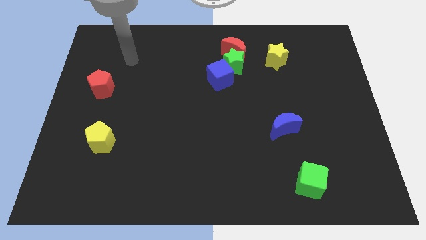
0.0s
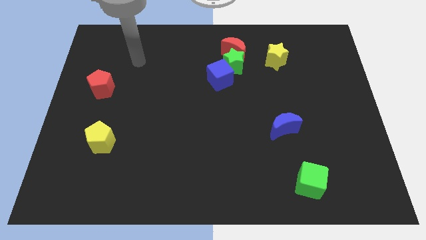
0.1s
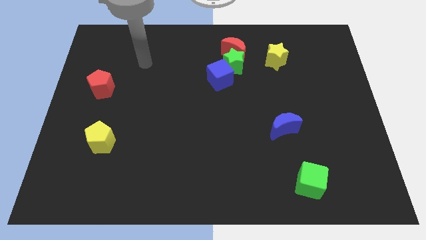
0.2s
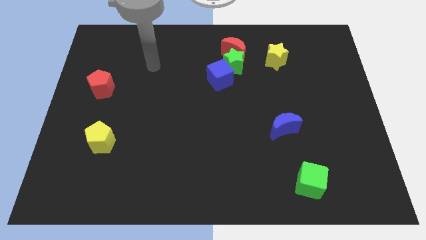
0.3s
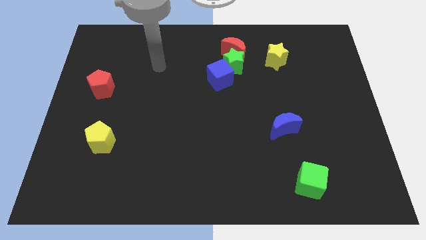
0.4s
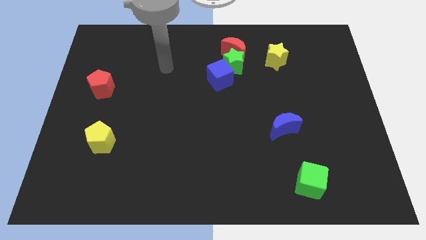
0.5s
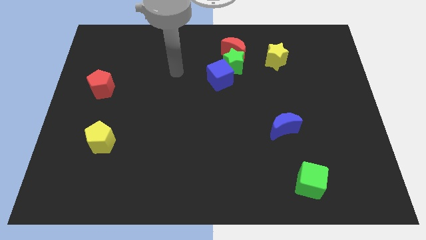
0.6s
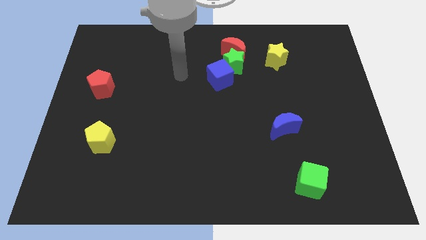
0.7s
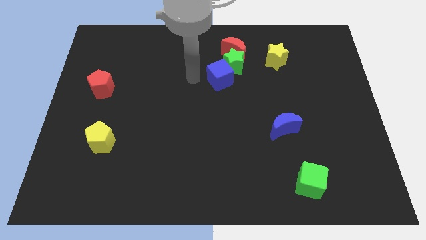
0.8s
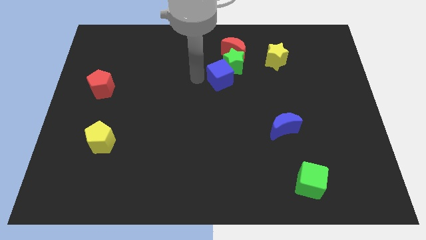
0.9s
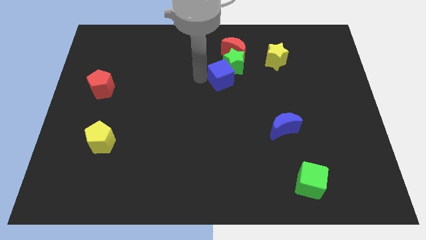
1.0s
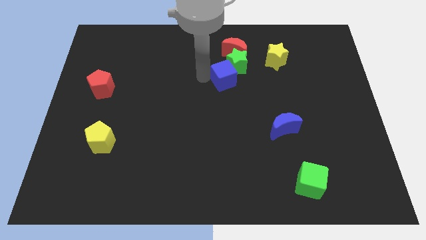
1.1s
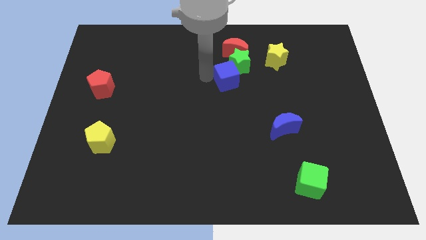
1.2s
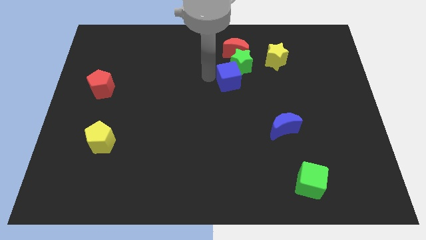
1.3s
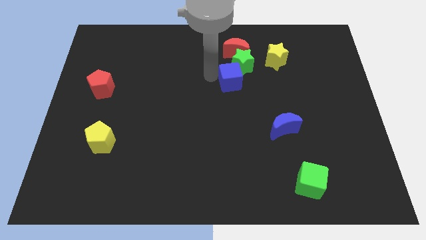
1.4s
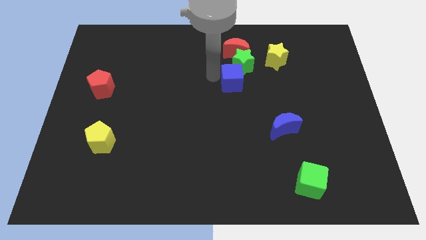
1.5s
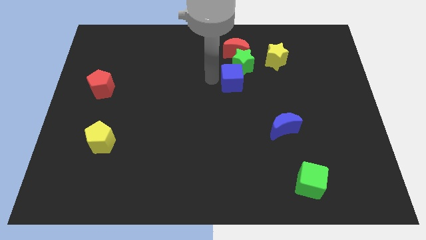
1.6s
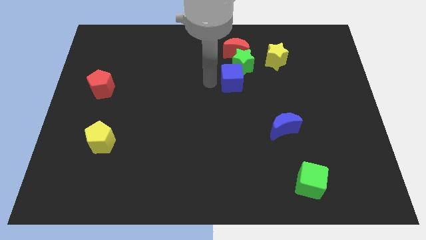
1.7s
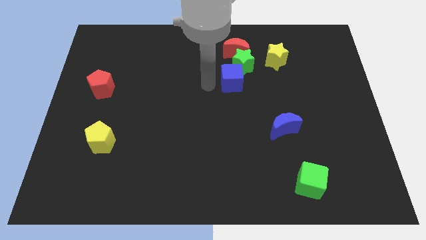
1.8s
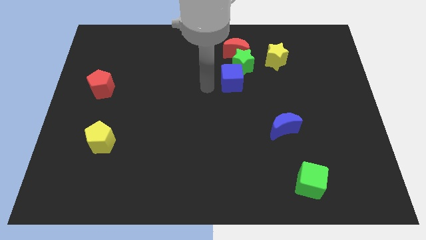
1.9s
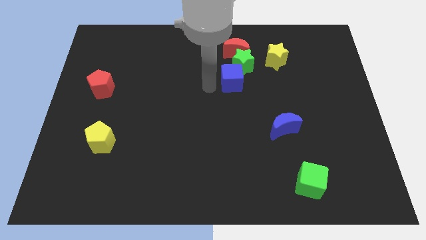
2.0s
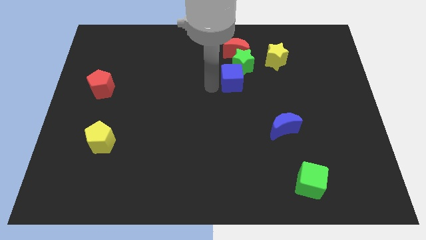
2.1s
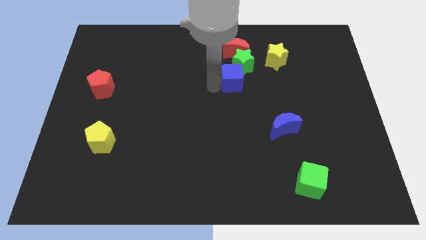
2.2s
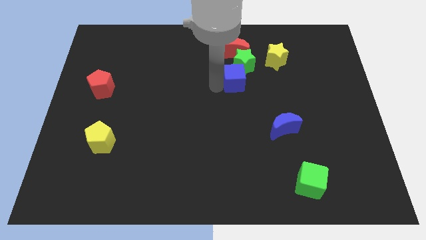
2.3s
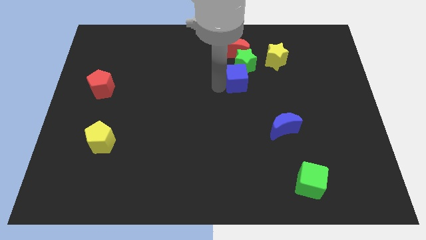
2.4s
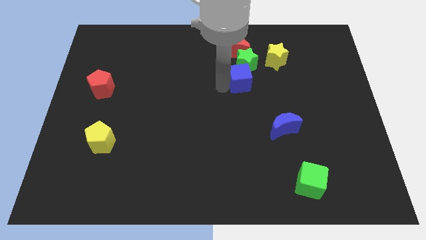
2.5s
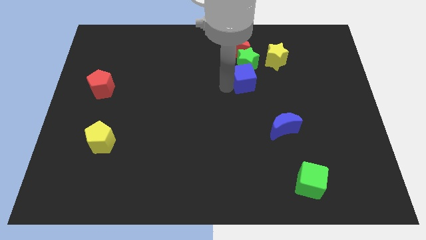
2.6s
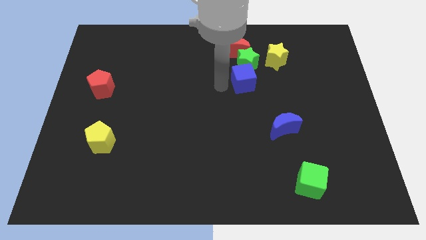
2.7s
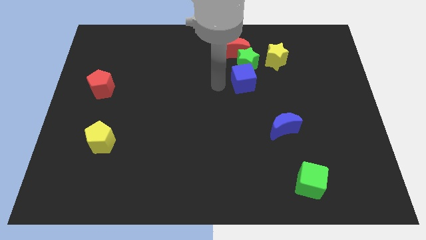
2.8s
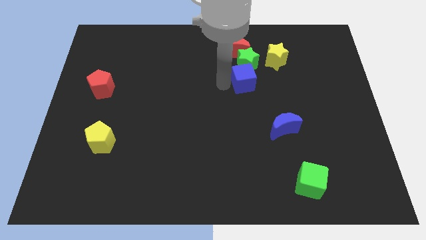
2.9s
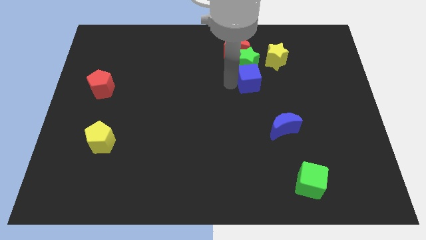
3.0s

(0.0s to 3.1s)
move the blue cube slightly right

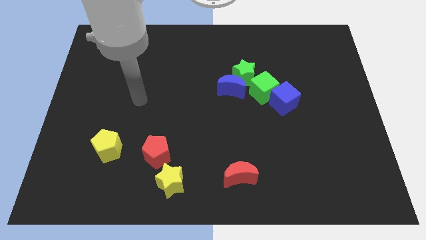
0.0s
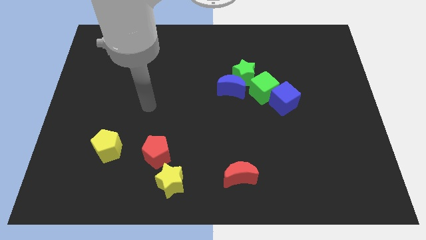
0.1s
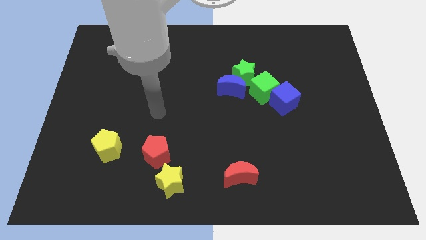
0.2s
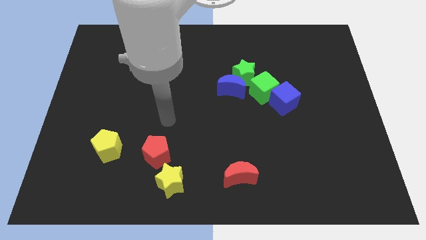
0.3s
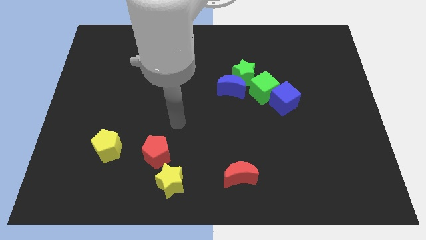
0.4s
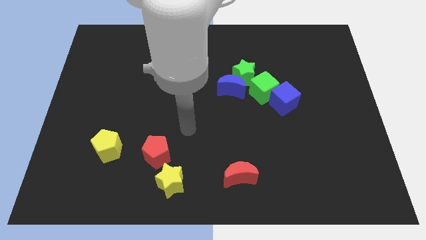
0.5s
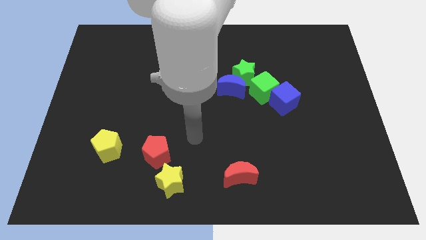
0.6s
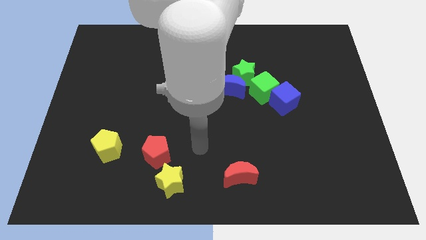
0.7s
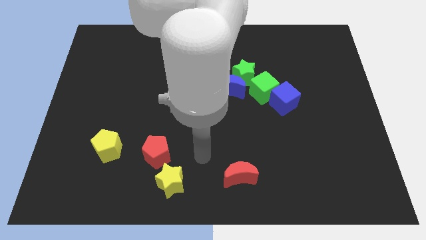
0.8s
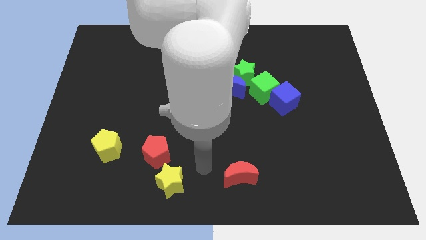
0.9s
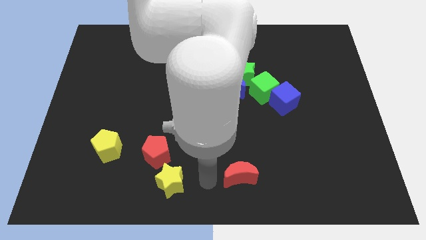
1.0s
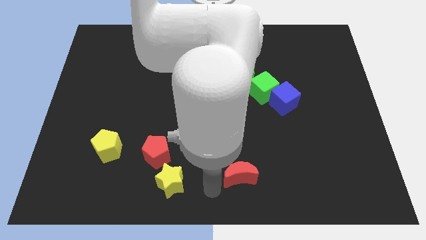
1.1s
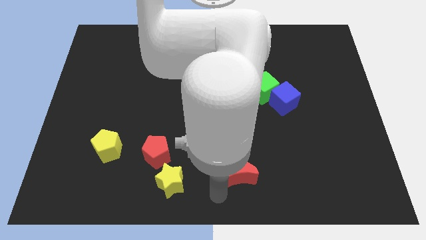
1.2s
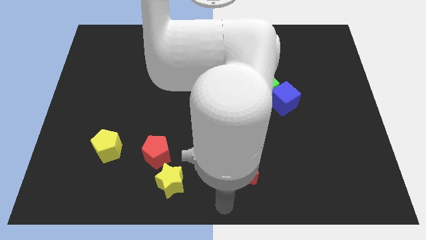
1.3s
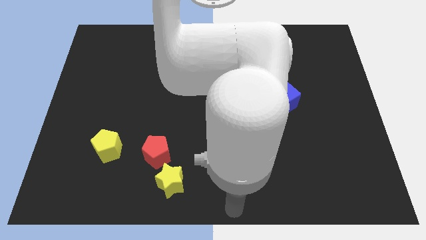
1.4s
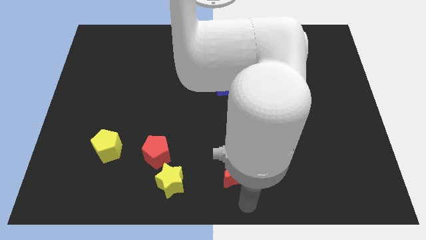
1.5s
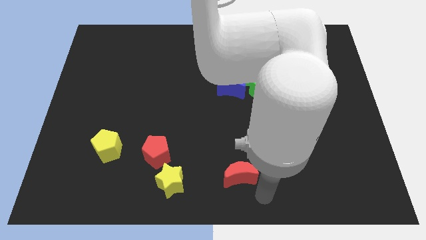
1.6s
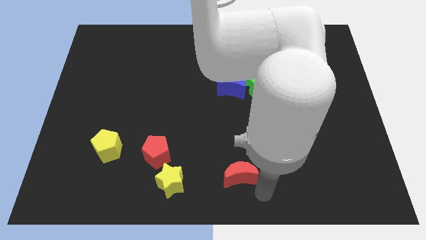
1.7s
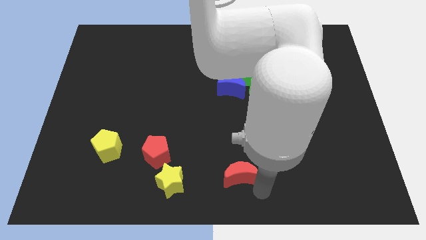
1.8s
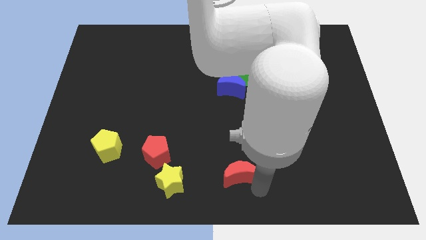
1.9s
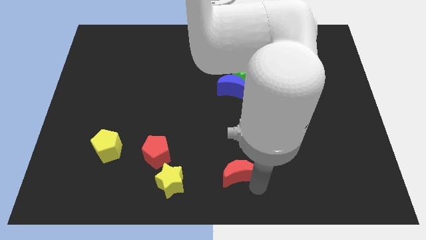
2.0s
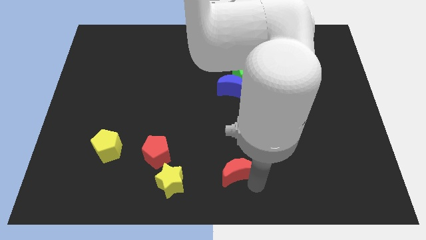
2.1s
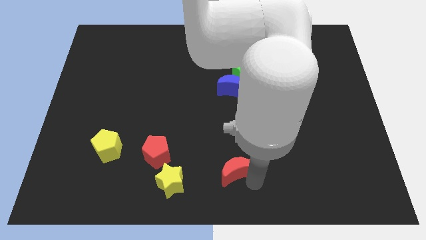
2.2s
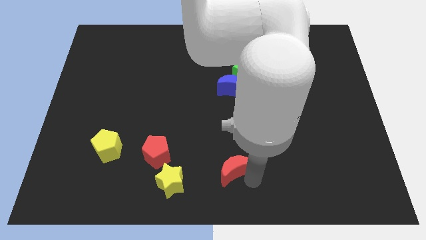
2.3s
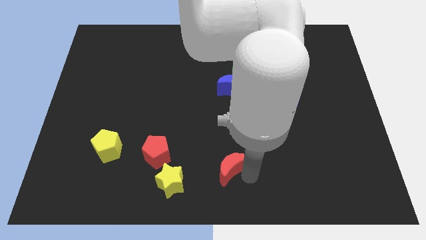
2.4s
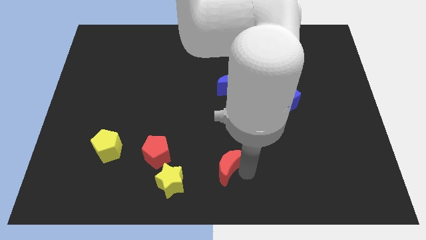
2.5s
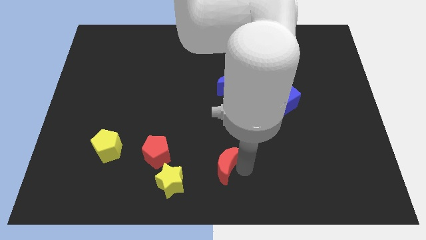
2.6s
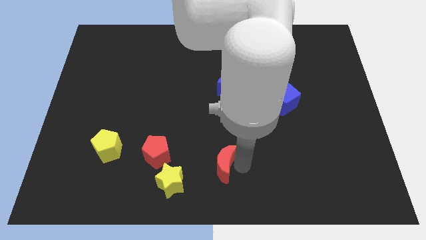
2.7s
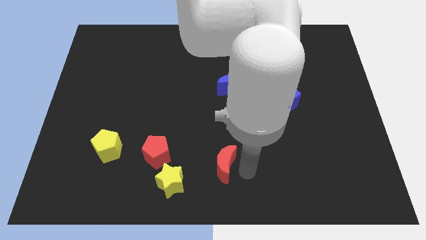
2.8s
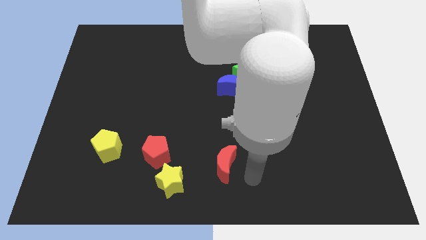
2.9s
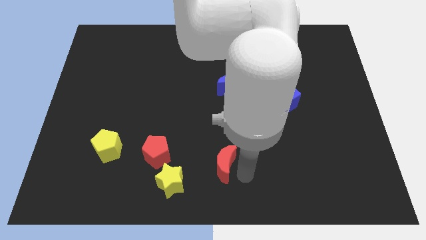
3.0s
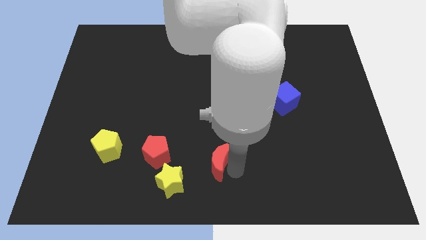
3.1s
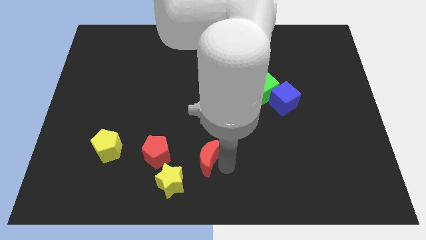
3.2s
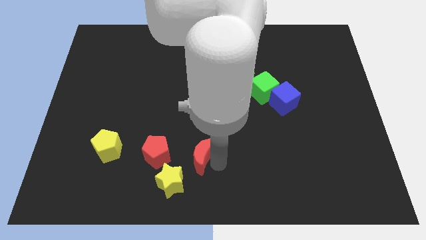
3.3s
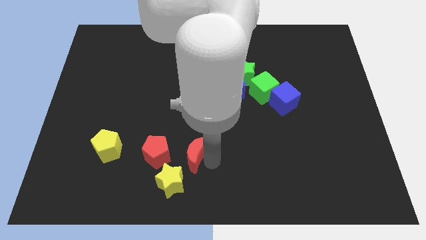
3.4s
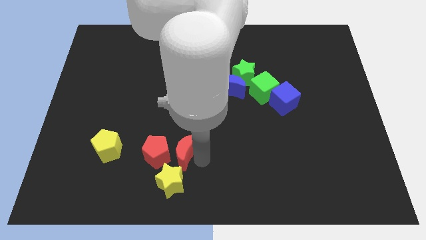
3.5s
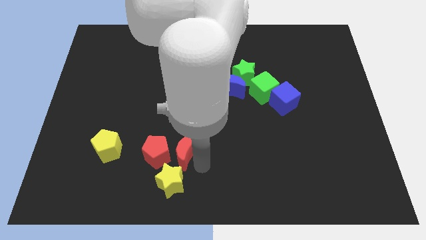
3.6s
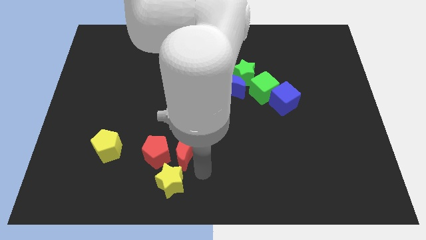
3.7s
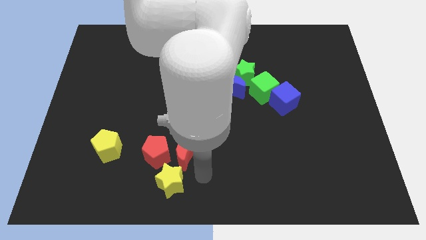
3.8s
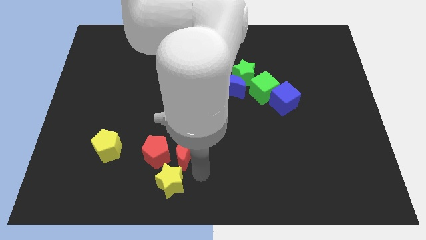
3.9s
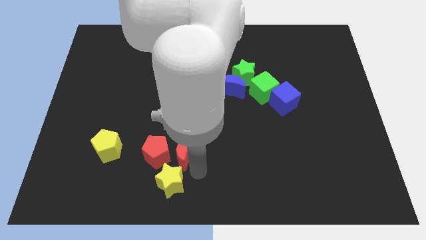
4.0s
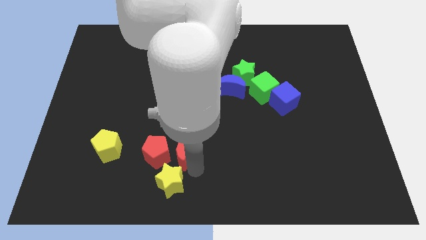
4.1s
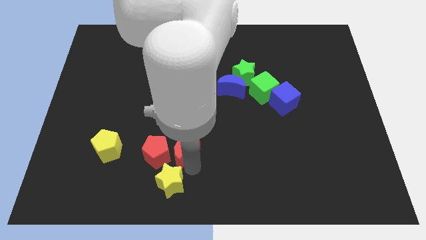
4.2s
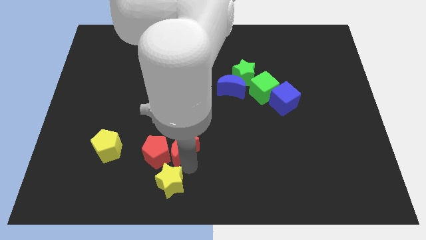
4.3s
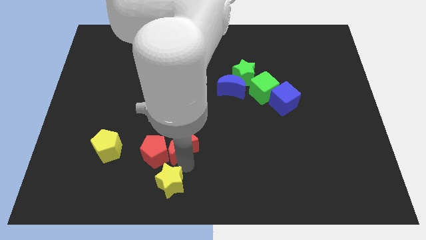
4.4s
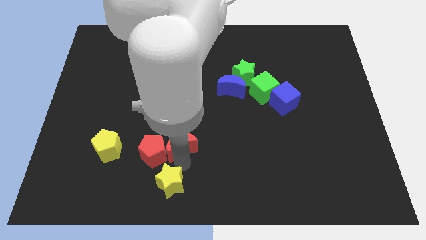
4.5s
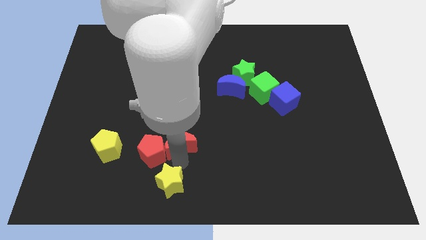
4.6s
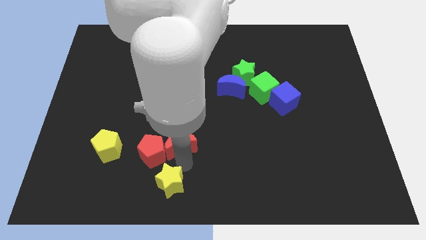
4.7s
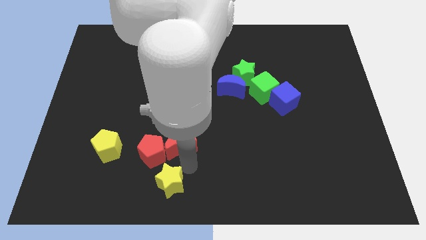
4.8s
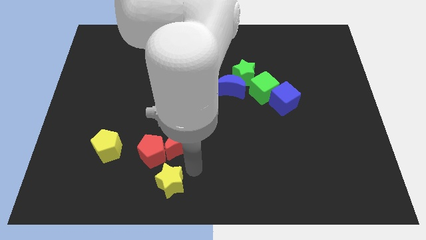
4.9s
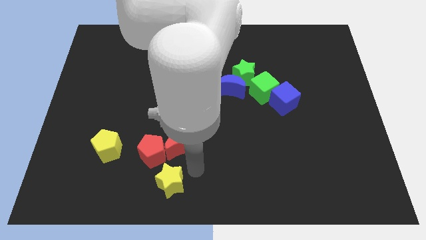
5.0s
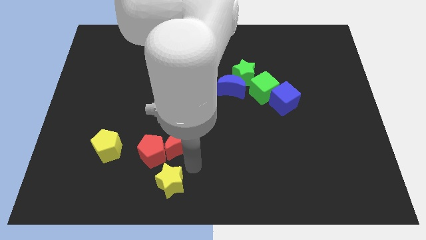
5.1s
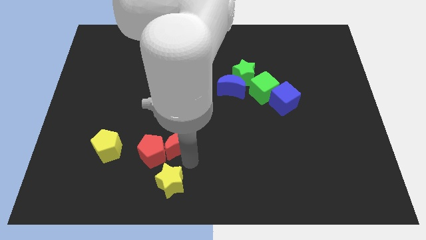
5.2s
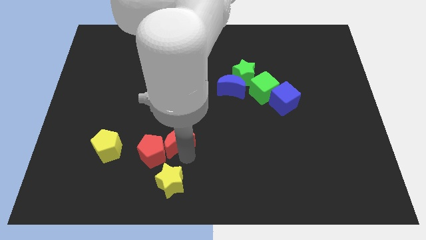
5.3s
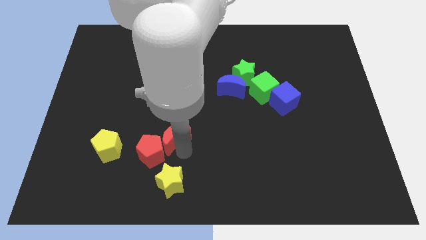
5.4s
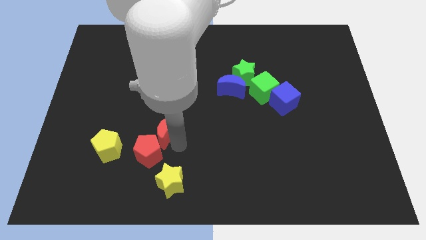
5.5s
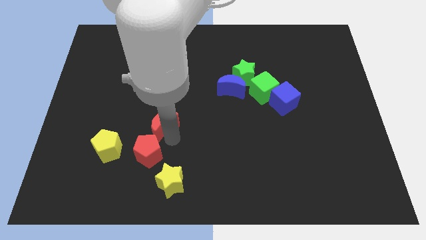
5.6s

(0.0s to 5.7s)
push the red moon diagonally upwards and to the left
